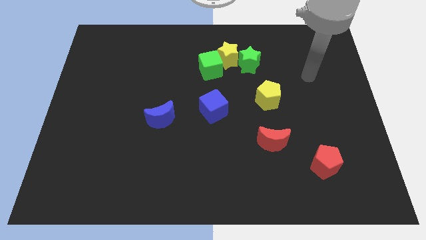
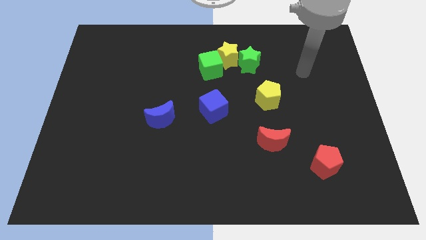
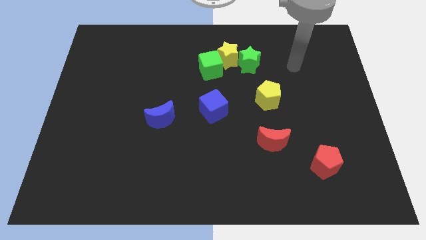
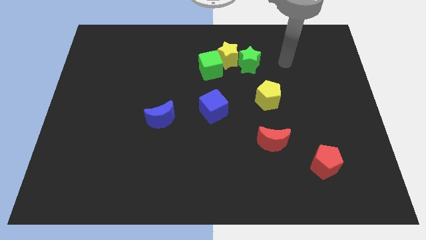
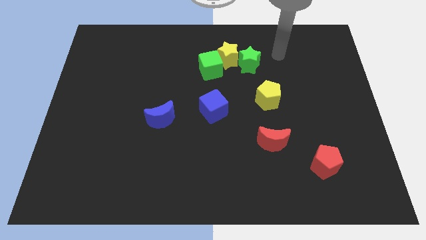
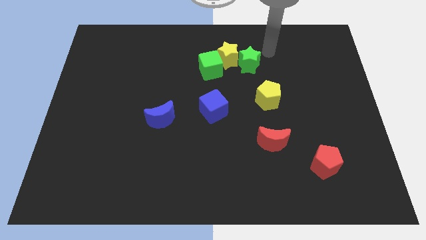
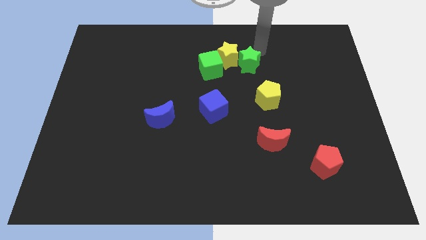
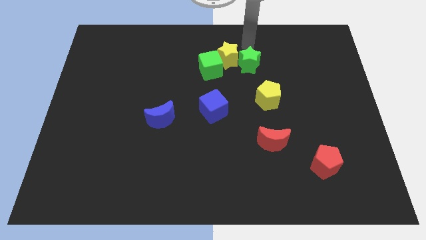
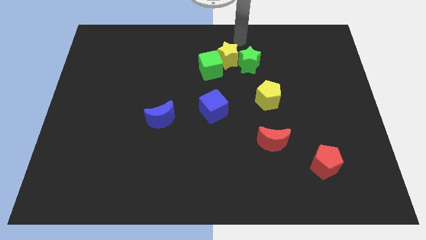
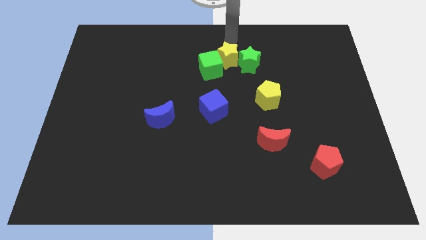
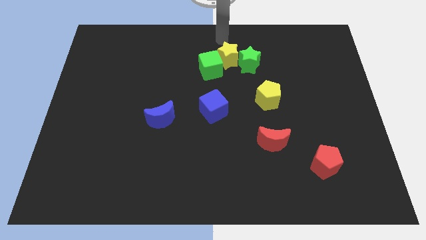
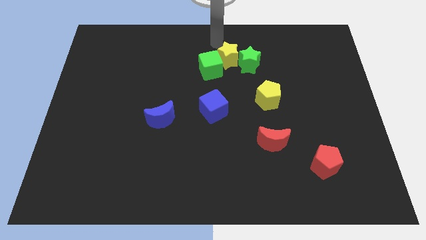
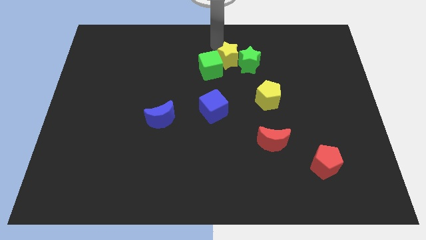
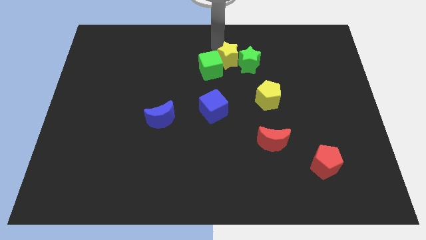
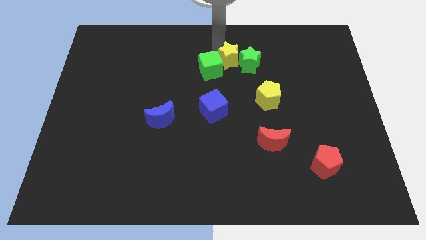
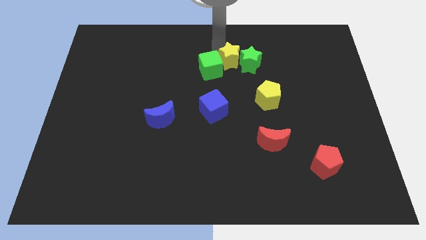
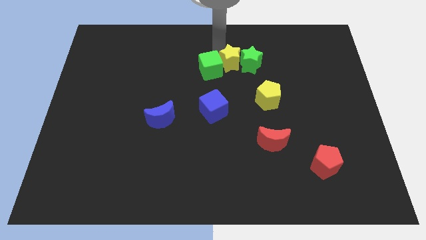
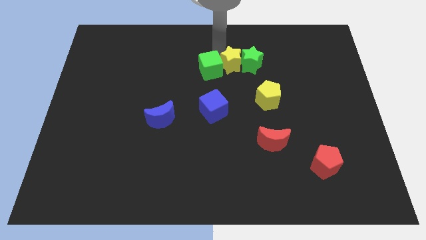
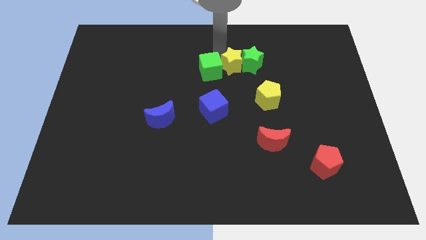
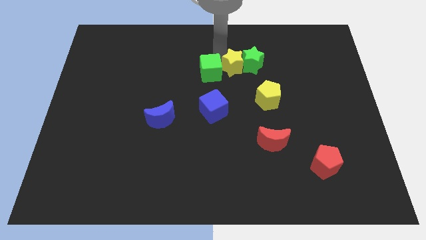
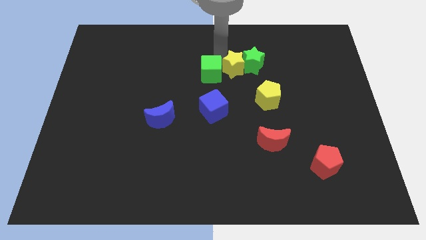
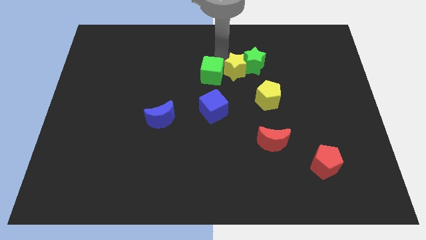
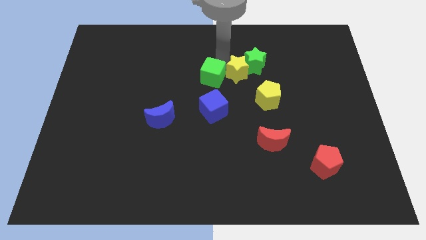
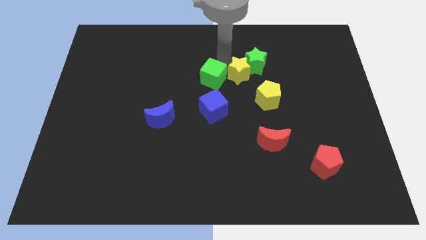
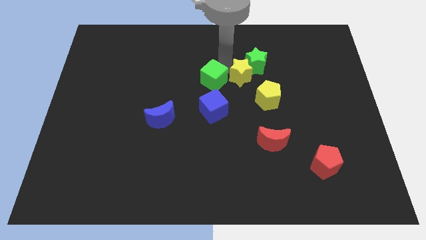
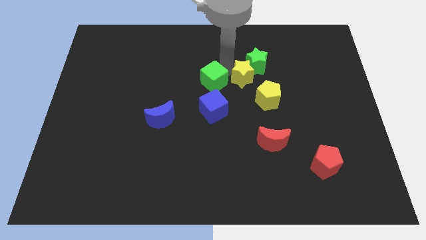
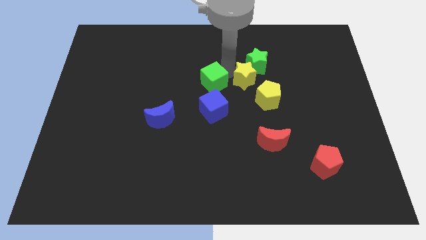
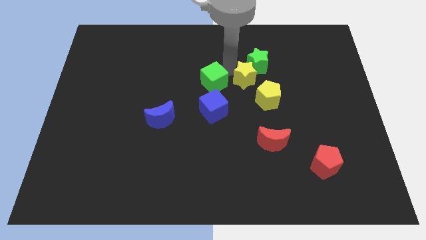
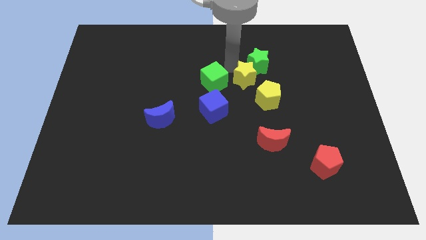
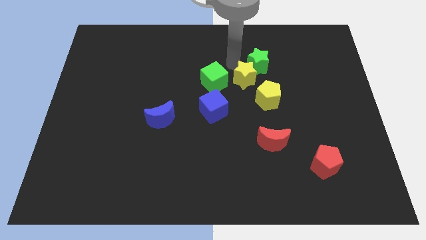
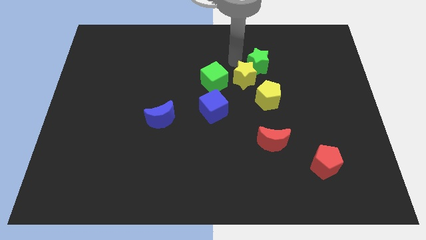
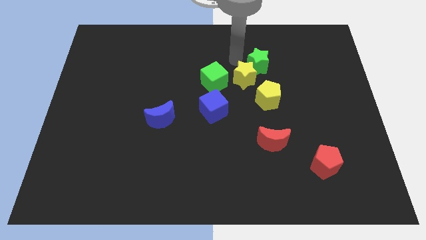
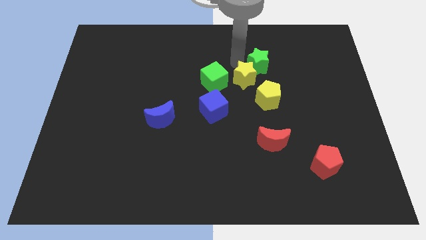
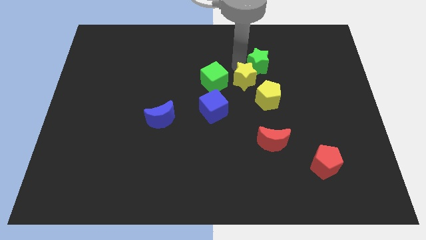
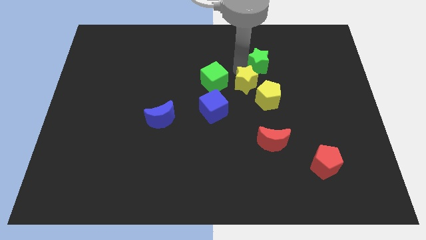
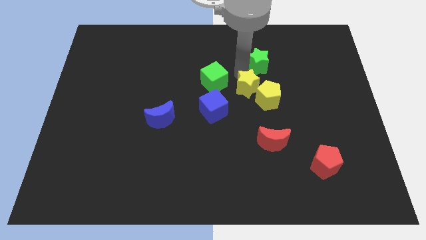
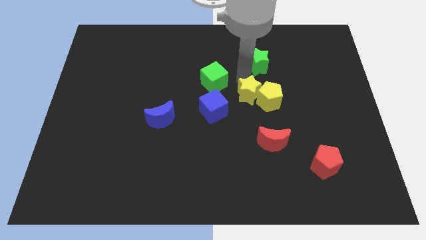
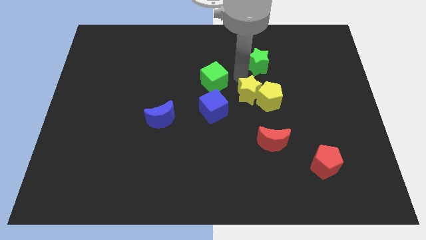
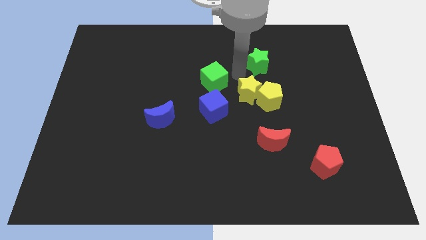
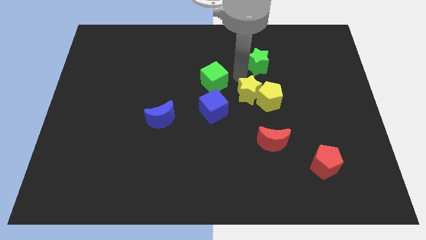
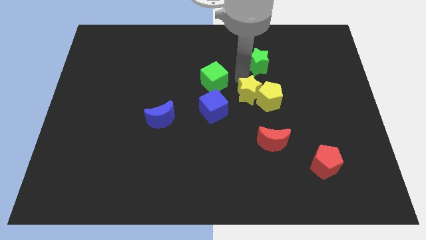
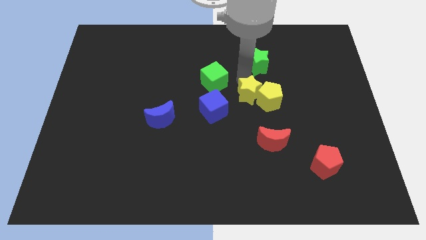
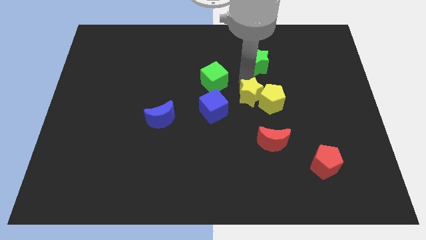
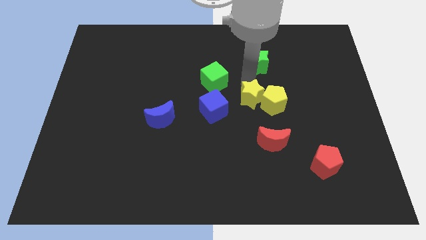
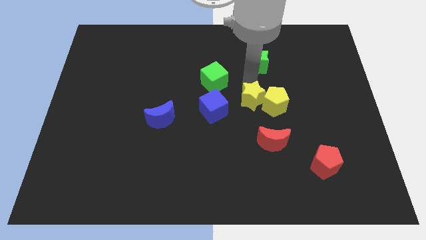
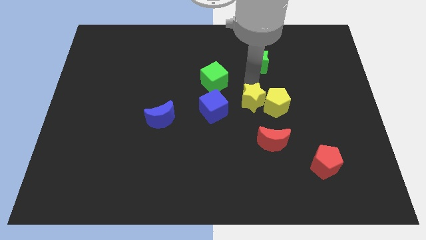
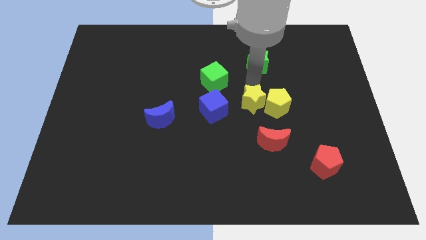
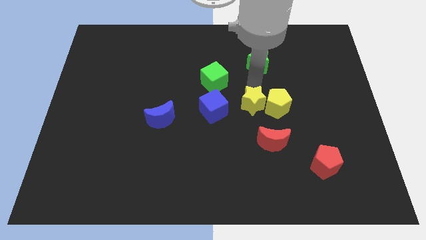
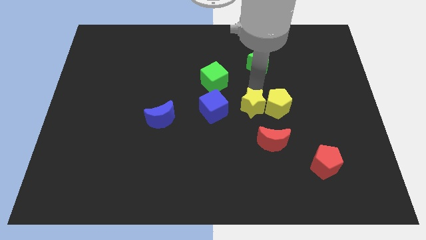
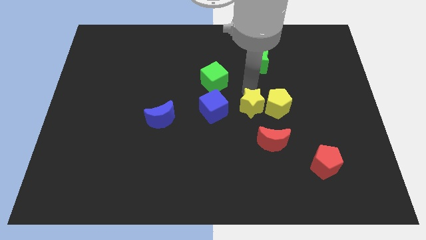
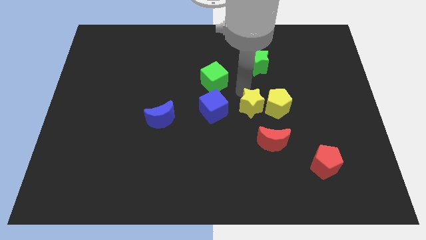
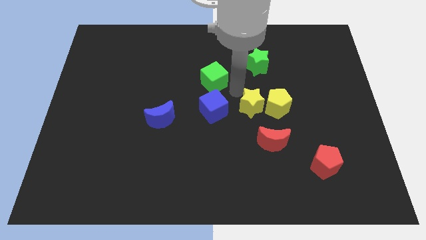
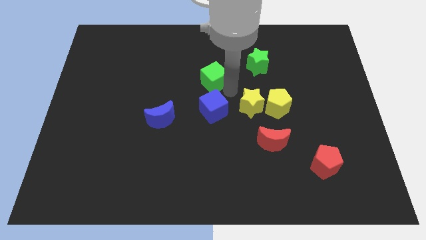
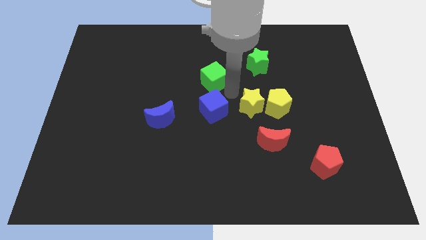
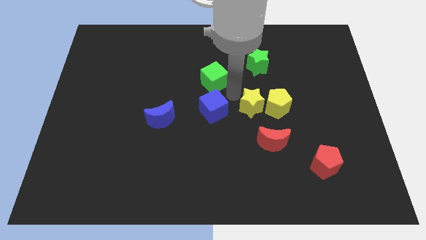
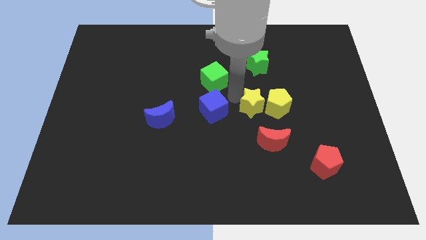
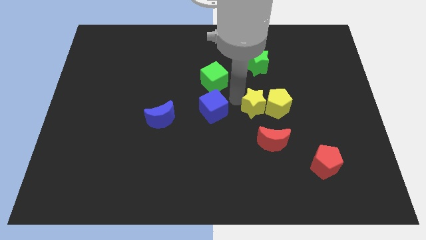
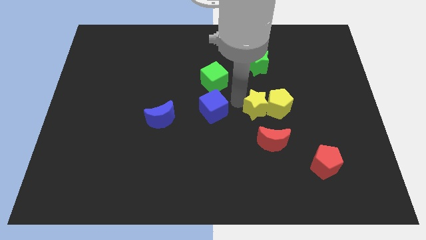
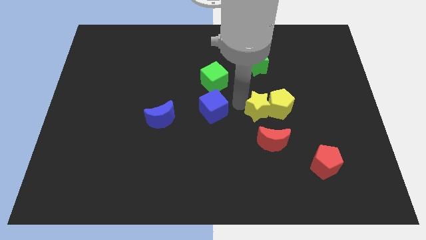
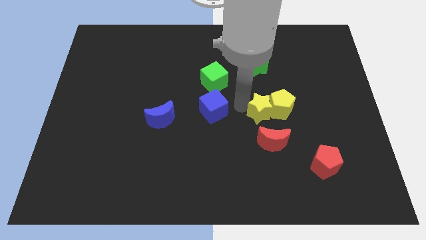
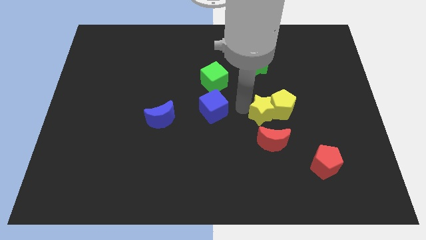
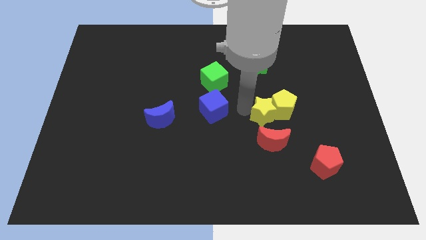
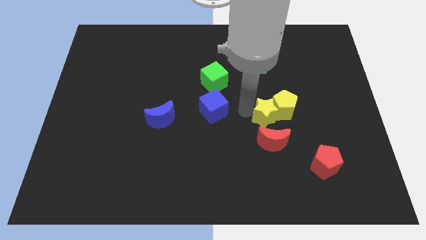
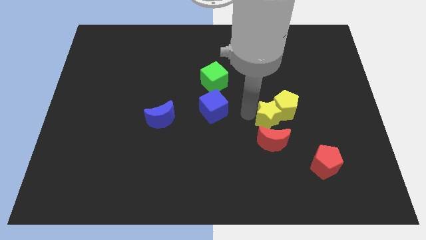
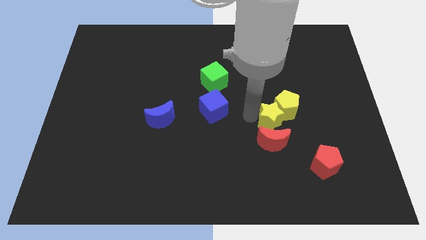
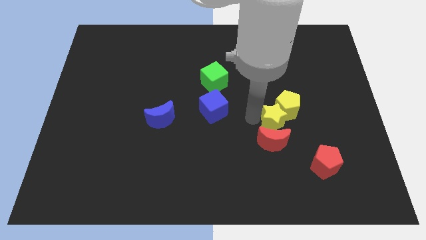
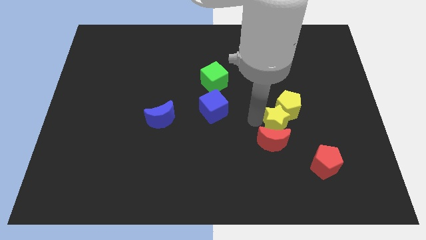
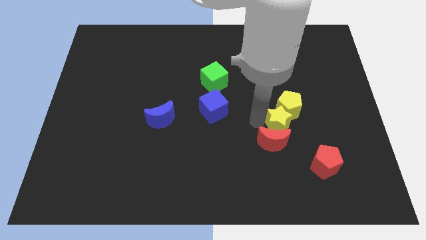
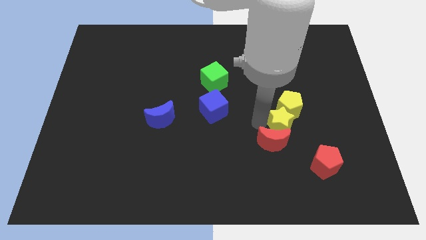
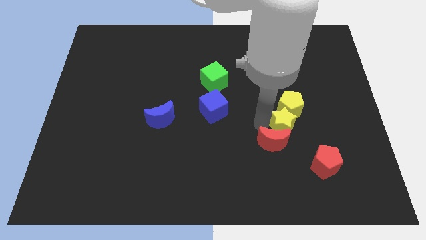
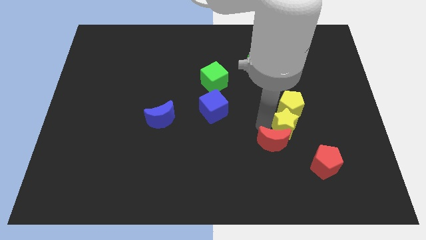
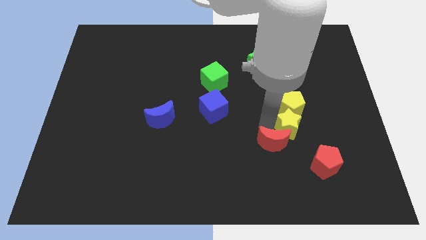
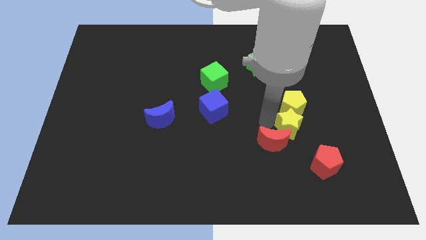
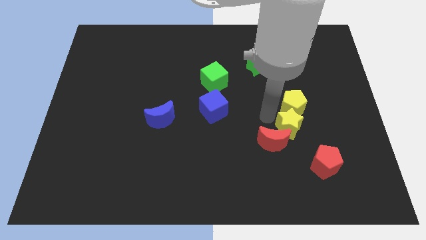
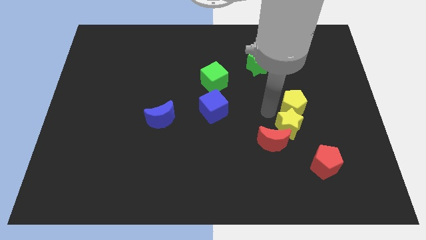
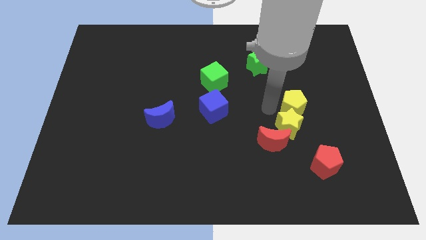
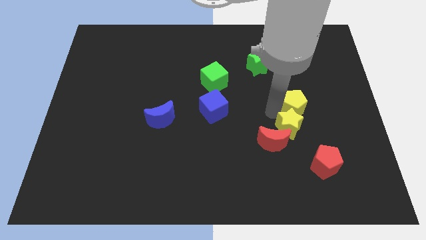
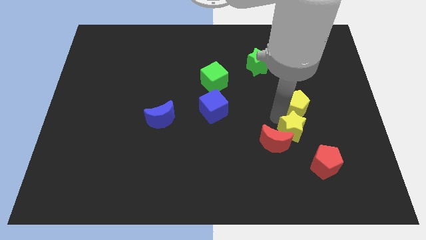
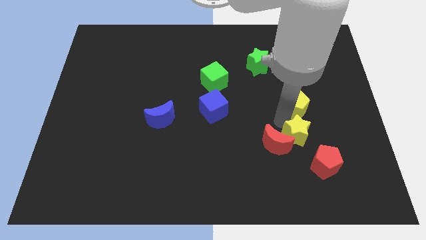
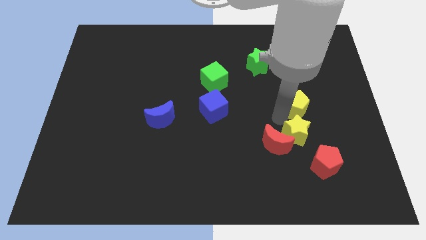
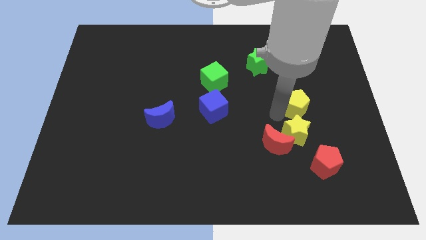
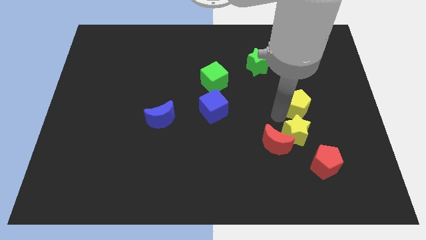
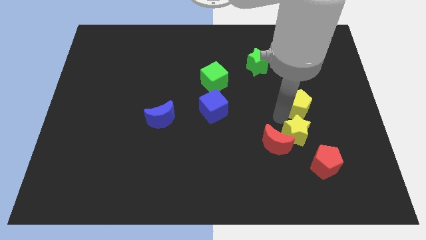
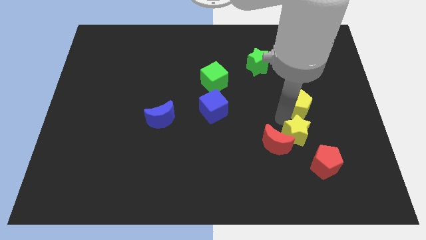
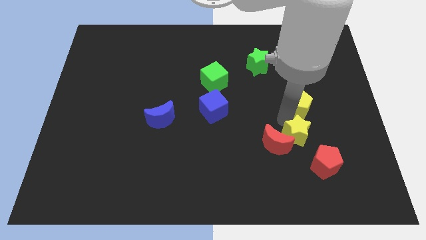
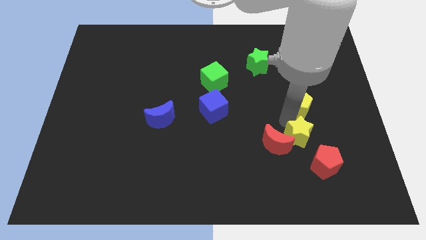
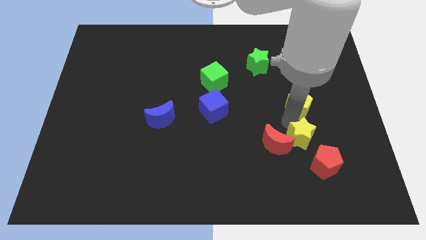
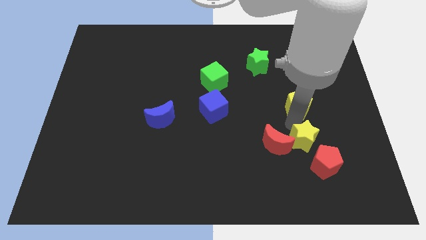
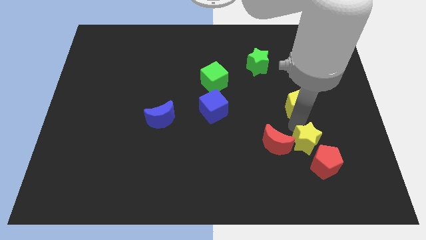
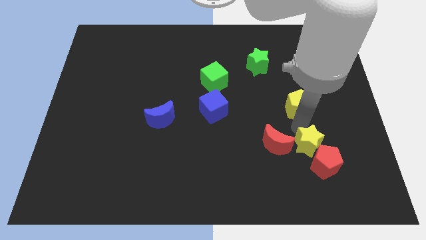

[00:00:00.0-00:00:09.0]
put the yellow star next to the red pentagon
